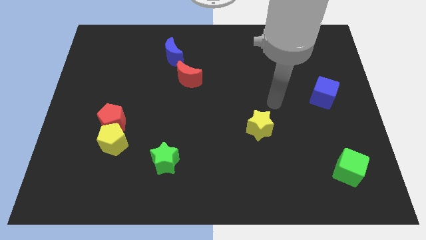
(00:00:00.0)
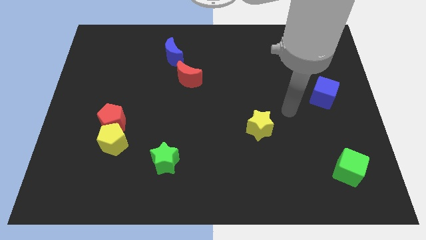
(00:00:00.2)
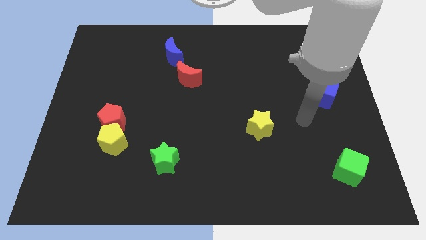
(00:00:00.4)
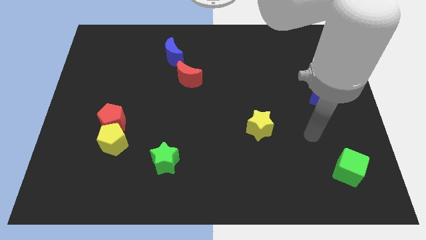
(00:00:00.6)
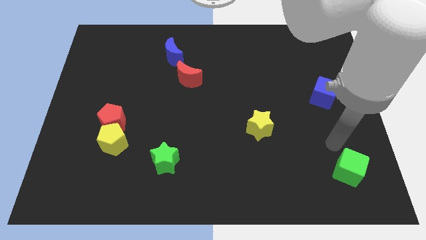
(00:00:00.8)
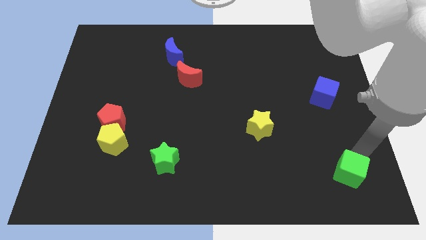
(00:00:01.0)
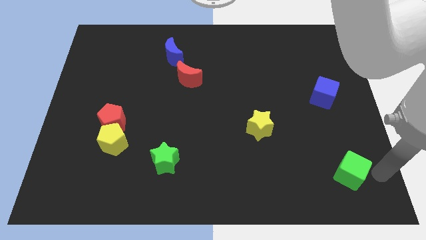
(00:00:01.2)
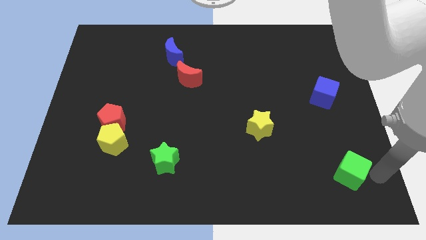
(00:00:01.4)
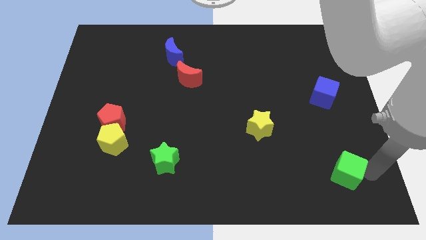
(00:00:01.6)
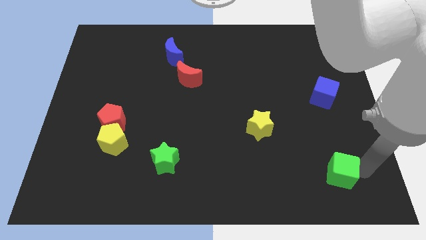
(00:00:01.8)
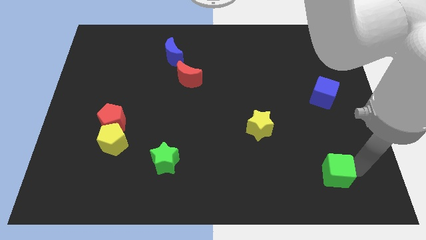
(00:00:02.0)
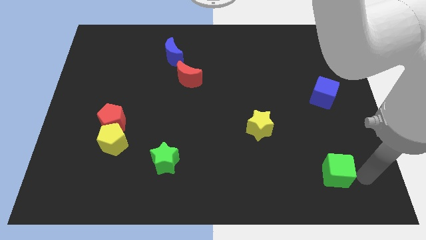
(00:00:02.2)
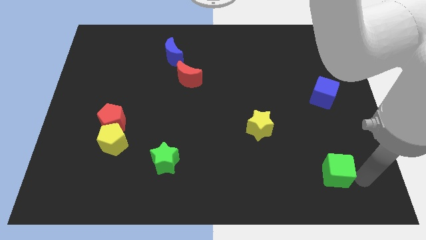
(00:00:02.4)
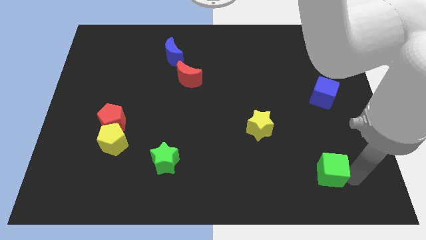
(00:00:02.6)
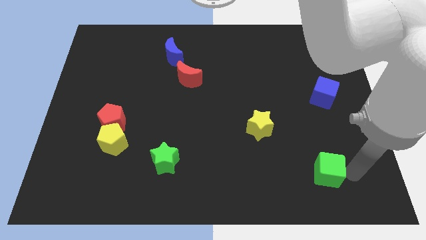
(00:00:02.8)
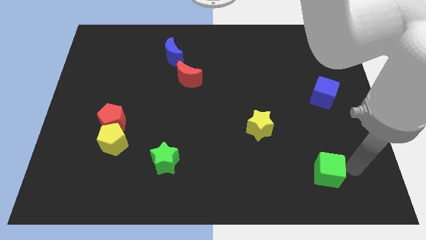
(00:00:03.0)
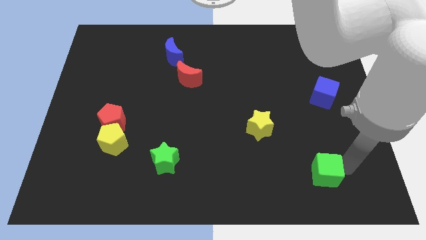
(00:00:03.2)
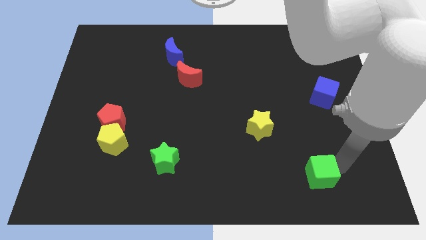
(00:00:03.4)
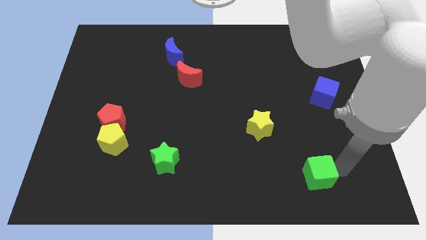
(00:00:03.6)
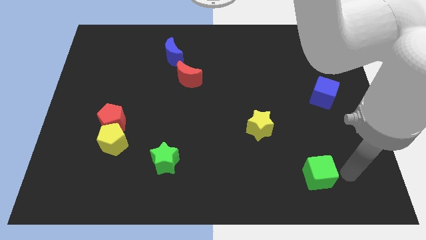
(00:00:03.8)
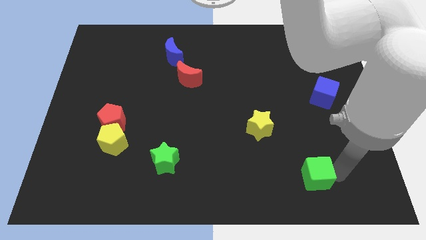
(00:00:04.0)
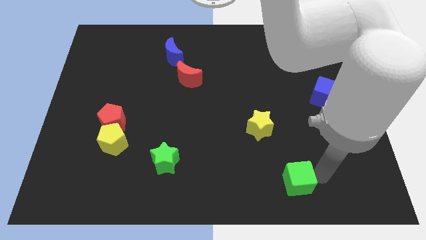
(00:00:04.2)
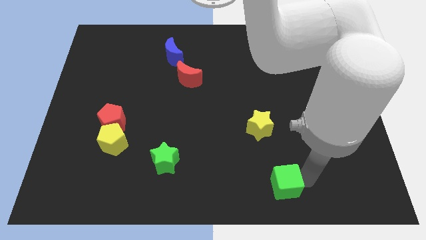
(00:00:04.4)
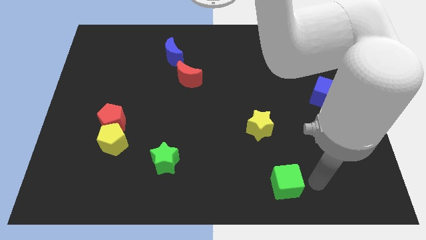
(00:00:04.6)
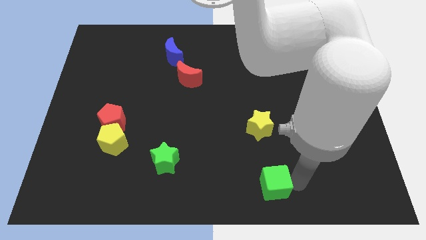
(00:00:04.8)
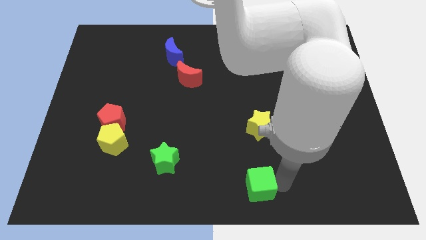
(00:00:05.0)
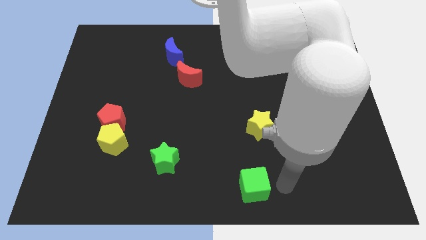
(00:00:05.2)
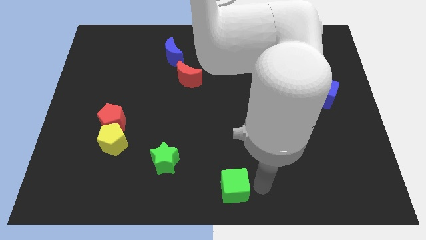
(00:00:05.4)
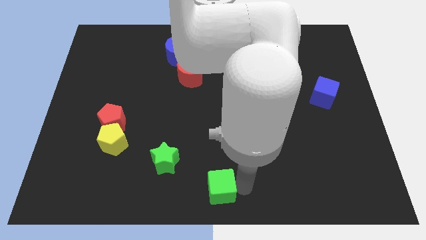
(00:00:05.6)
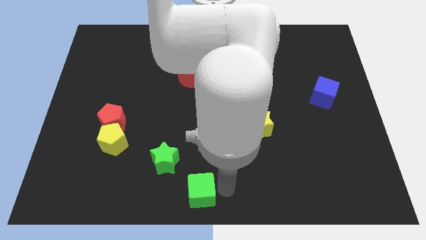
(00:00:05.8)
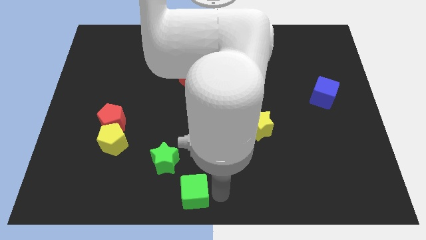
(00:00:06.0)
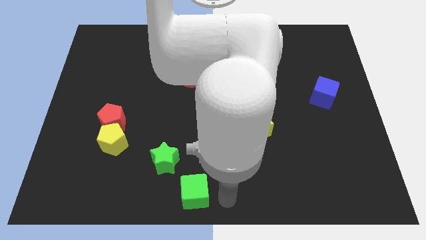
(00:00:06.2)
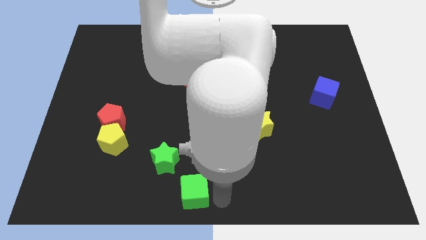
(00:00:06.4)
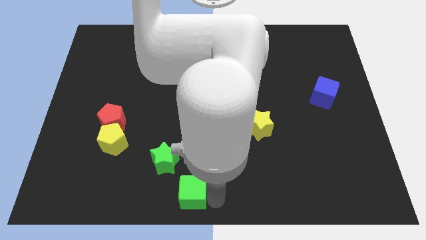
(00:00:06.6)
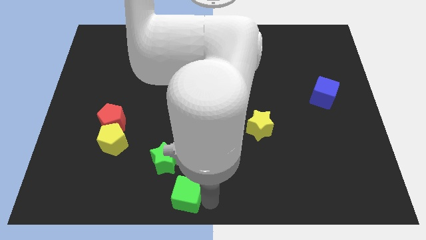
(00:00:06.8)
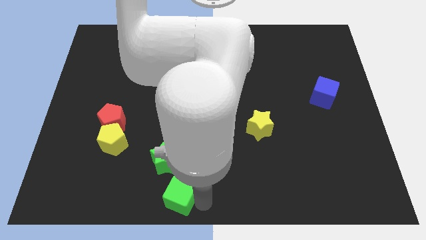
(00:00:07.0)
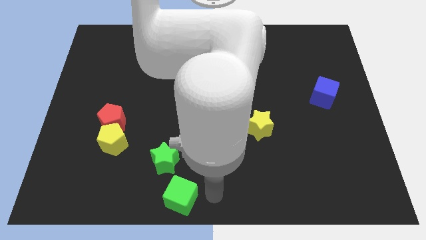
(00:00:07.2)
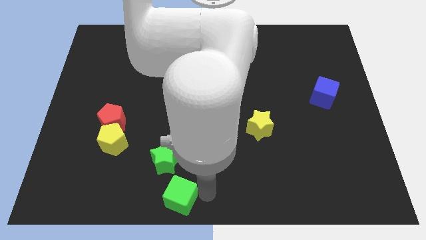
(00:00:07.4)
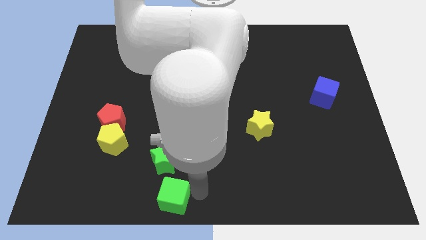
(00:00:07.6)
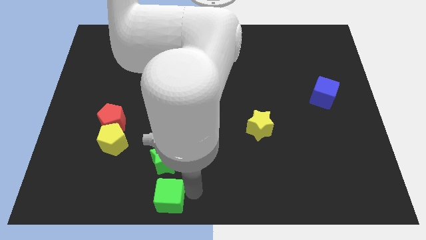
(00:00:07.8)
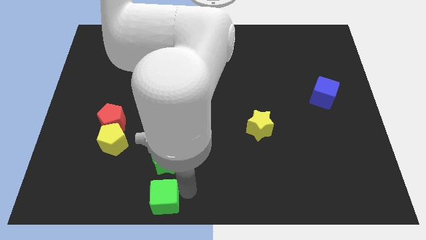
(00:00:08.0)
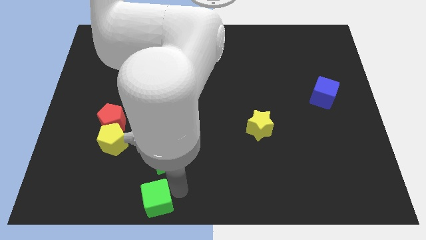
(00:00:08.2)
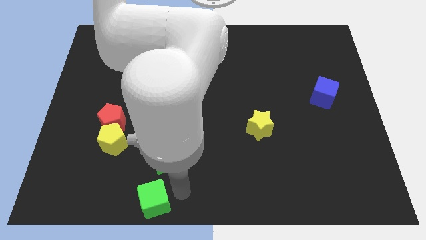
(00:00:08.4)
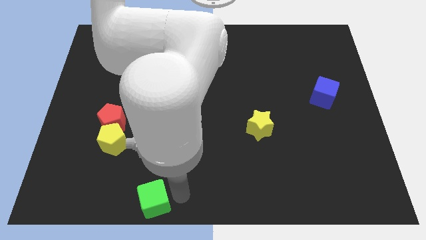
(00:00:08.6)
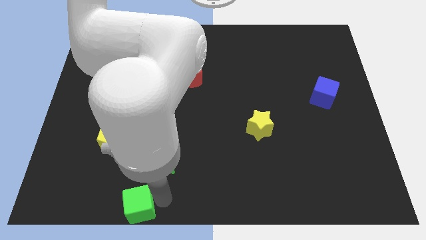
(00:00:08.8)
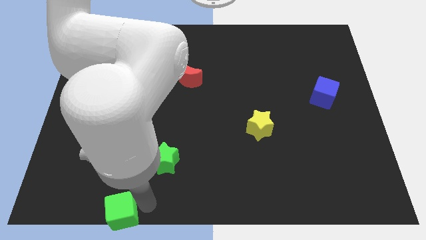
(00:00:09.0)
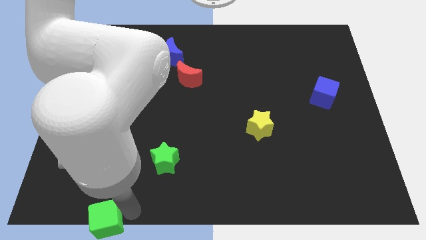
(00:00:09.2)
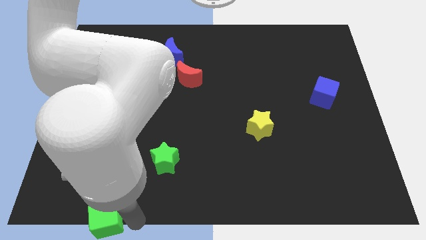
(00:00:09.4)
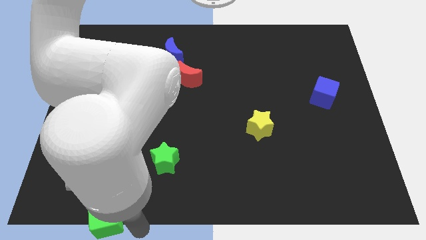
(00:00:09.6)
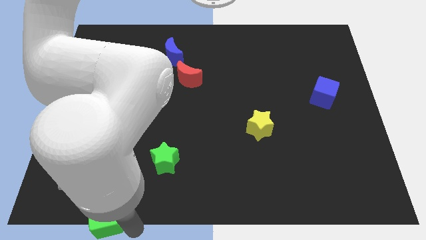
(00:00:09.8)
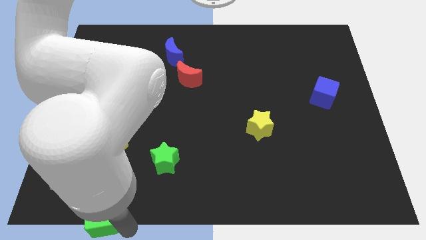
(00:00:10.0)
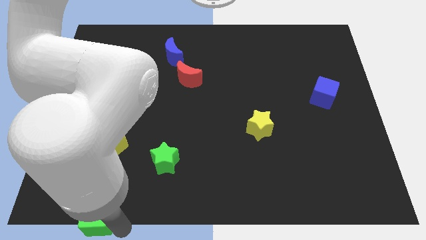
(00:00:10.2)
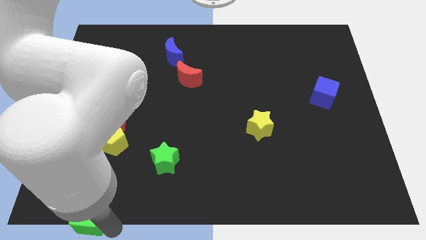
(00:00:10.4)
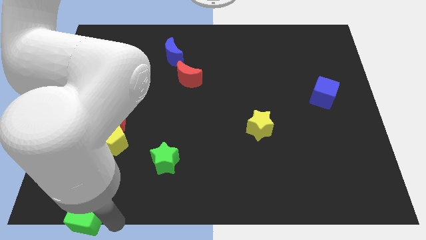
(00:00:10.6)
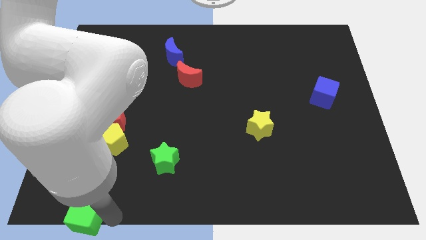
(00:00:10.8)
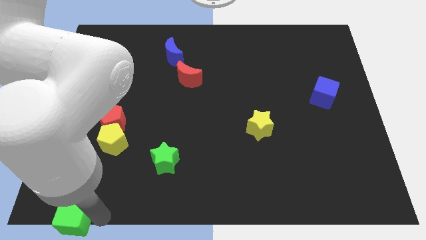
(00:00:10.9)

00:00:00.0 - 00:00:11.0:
slide the green cube to the bottom left

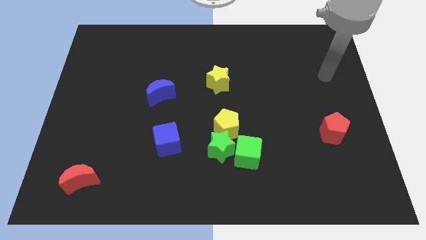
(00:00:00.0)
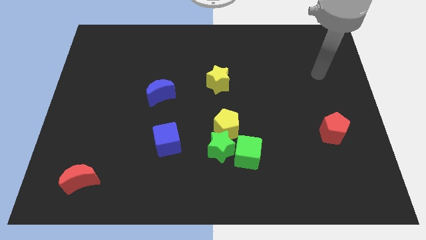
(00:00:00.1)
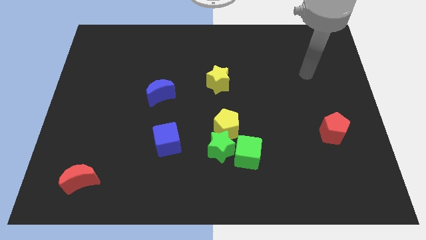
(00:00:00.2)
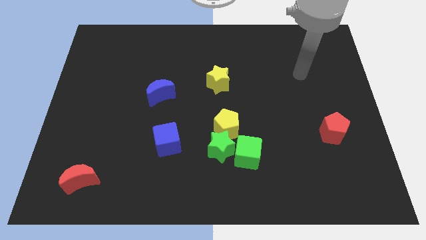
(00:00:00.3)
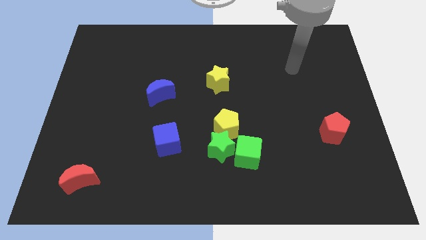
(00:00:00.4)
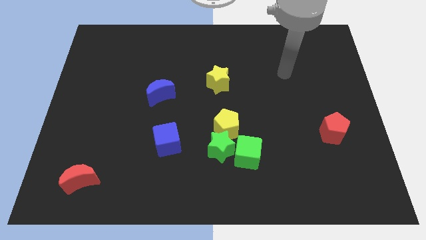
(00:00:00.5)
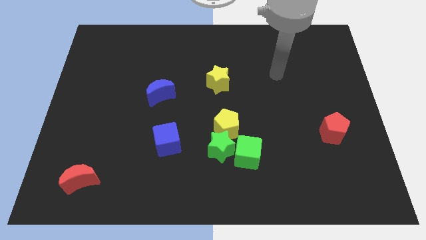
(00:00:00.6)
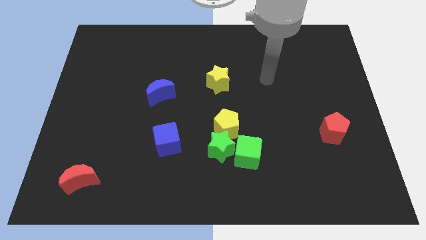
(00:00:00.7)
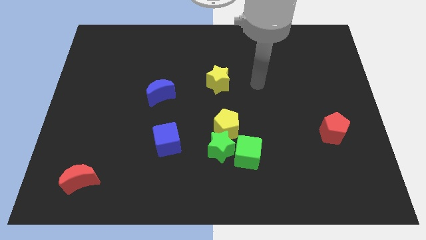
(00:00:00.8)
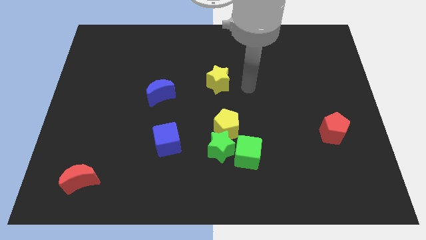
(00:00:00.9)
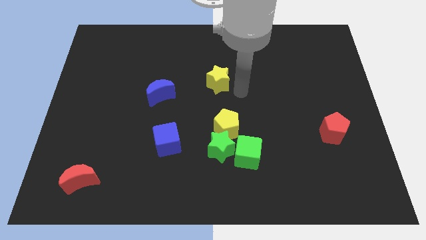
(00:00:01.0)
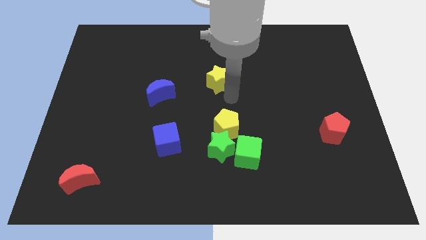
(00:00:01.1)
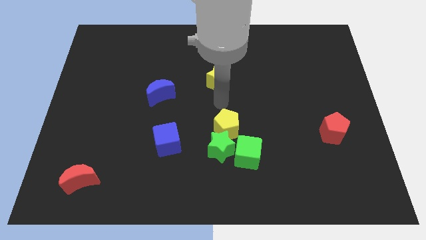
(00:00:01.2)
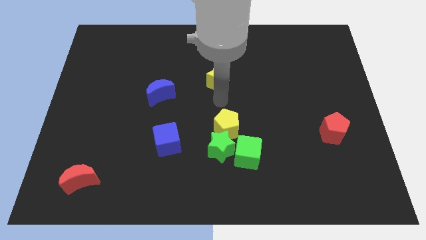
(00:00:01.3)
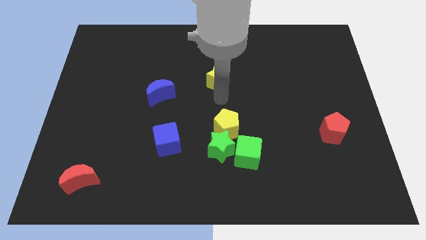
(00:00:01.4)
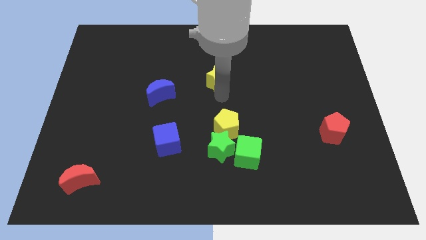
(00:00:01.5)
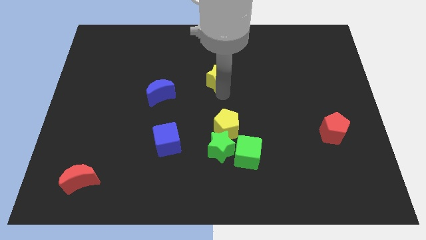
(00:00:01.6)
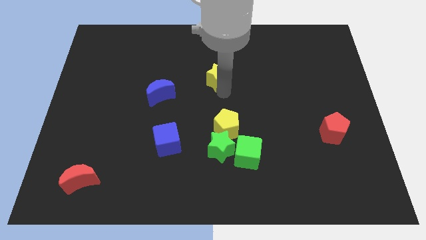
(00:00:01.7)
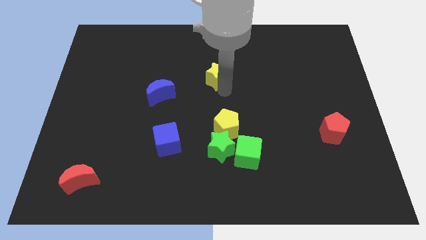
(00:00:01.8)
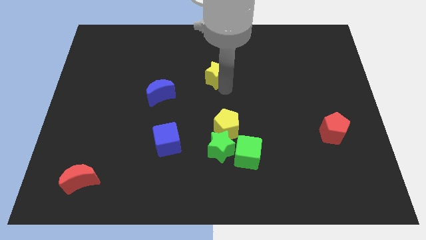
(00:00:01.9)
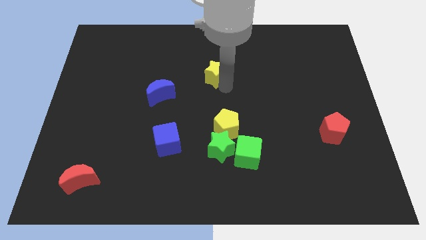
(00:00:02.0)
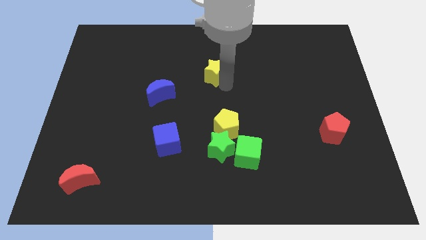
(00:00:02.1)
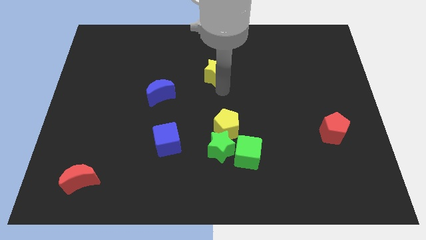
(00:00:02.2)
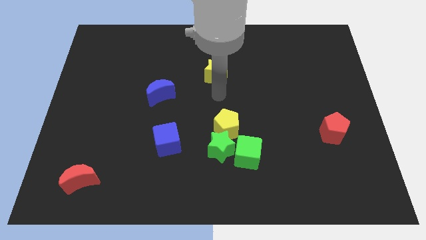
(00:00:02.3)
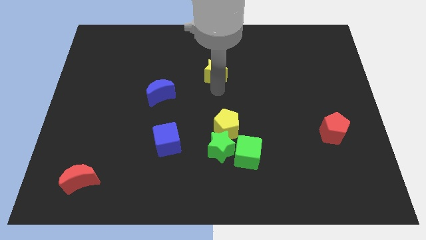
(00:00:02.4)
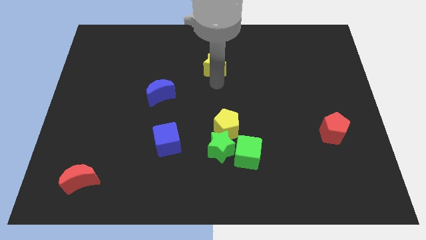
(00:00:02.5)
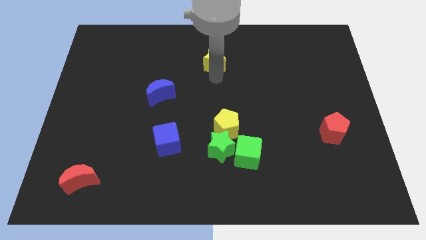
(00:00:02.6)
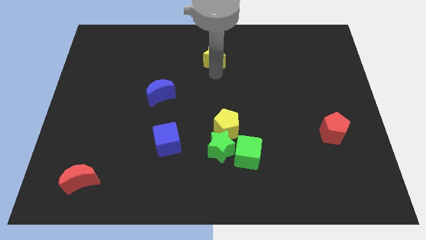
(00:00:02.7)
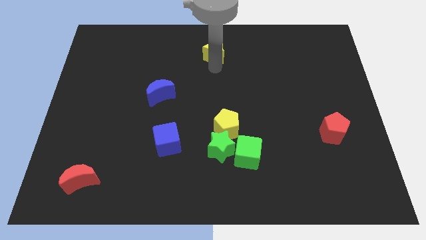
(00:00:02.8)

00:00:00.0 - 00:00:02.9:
move the yellow star to the towards your base
